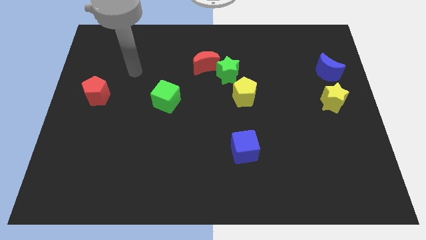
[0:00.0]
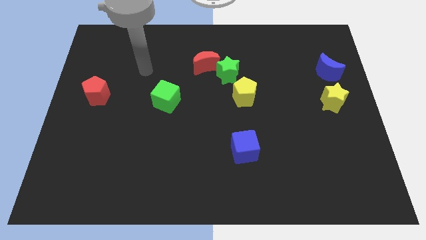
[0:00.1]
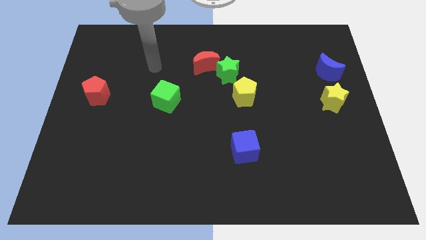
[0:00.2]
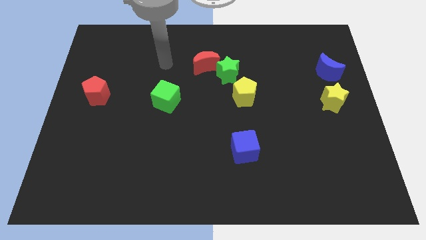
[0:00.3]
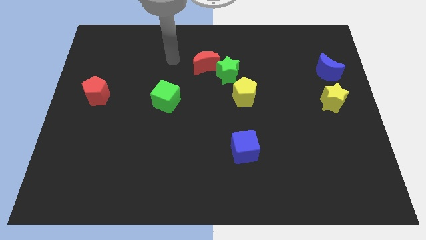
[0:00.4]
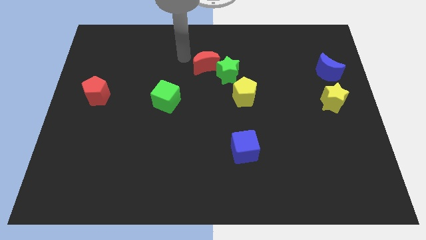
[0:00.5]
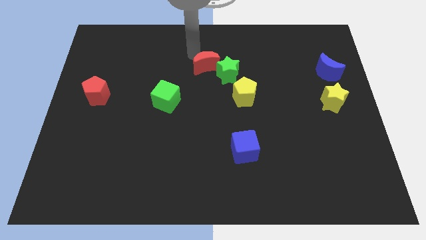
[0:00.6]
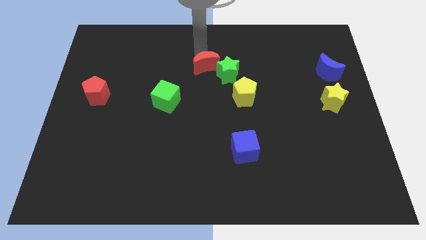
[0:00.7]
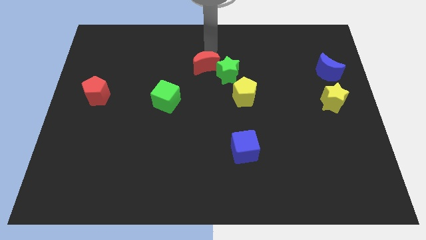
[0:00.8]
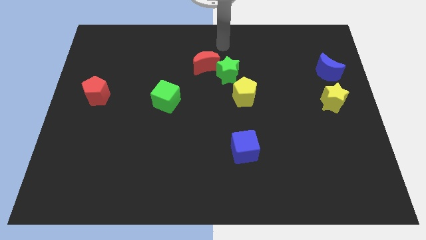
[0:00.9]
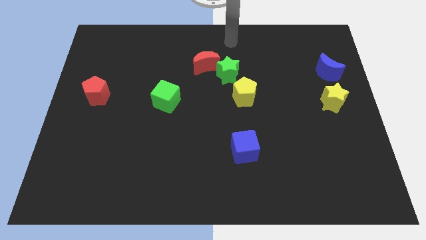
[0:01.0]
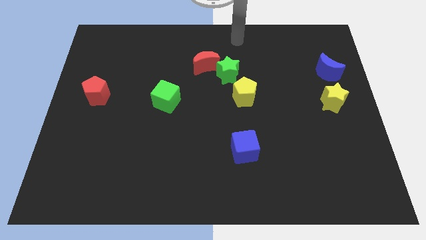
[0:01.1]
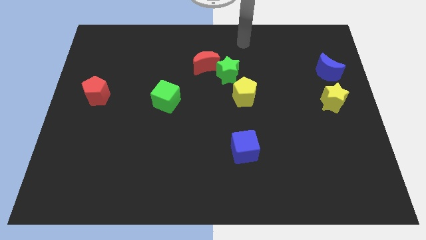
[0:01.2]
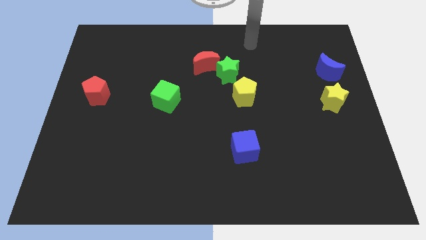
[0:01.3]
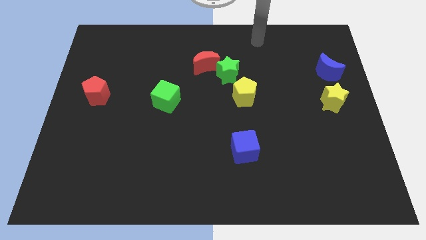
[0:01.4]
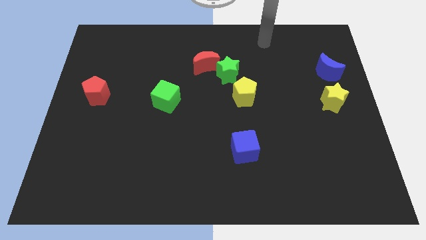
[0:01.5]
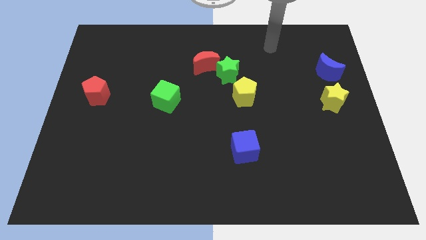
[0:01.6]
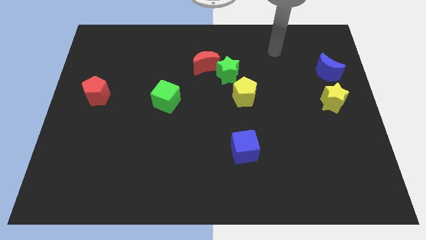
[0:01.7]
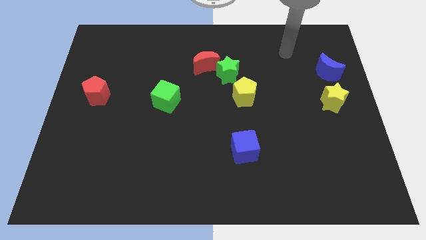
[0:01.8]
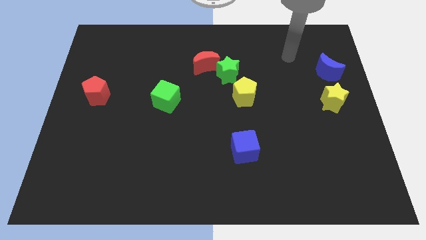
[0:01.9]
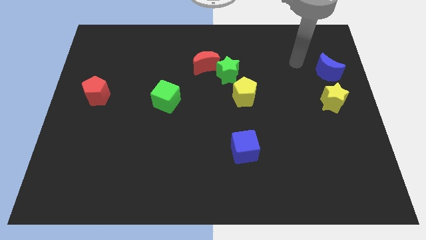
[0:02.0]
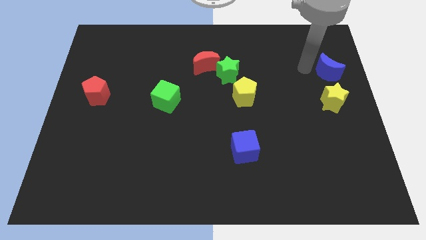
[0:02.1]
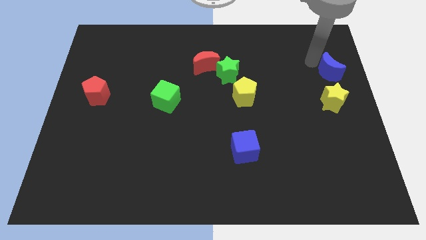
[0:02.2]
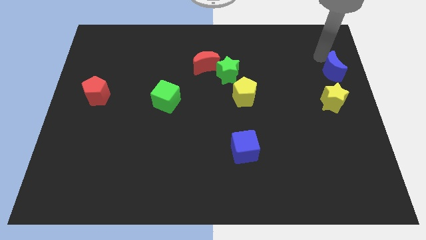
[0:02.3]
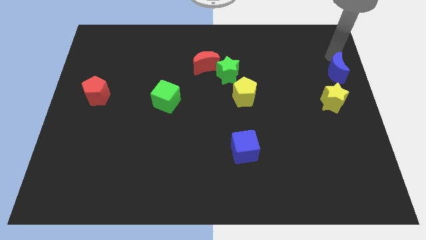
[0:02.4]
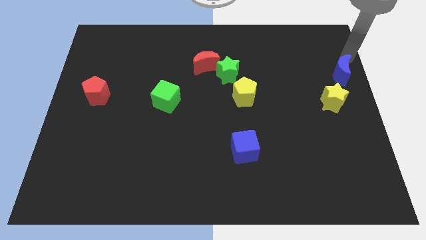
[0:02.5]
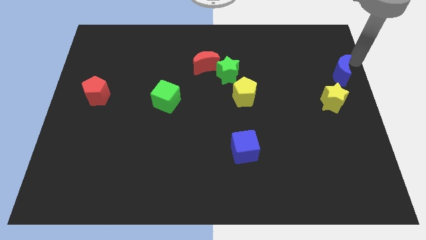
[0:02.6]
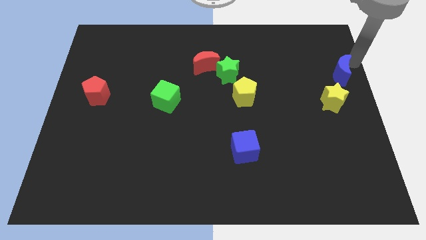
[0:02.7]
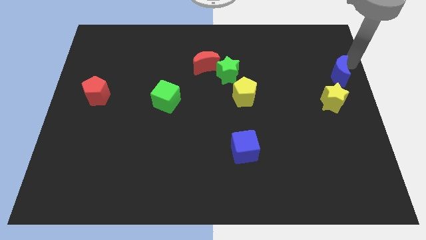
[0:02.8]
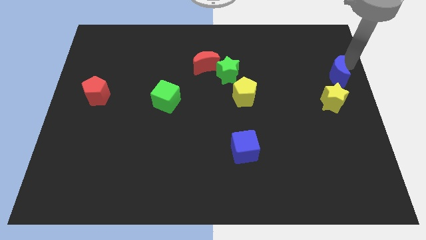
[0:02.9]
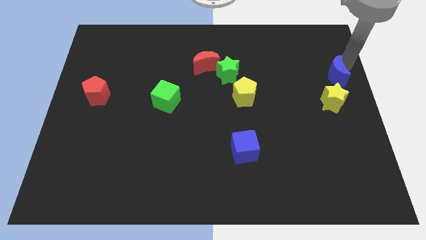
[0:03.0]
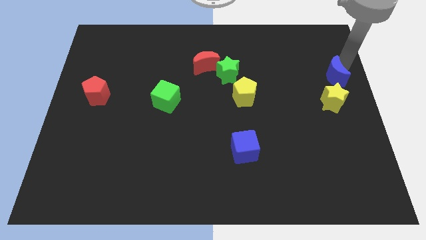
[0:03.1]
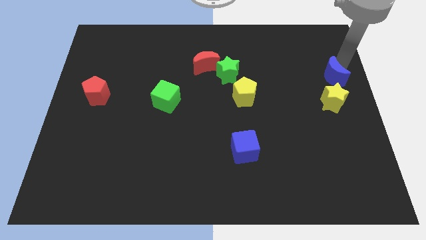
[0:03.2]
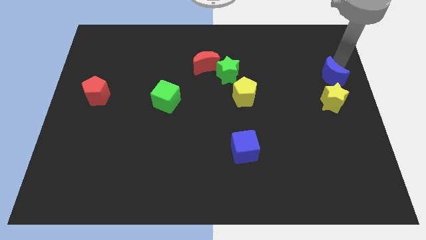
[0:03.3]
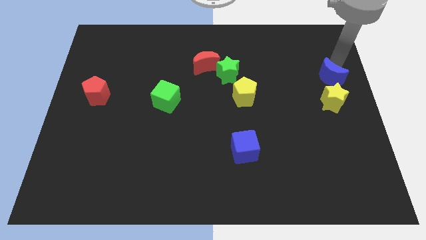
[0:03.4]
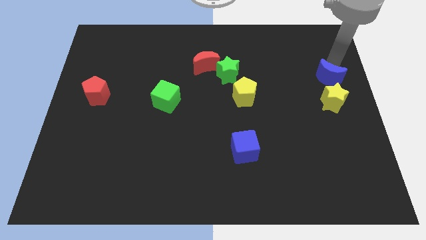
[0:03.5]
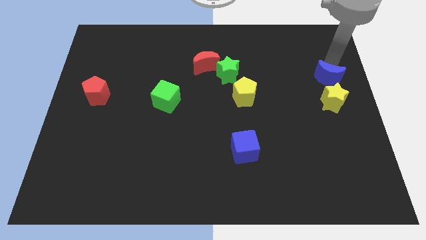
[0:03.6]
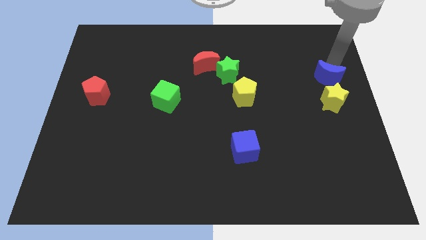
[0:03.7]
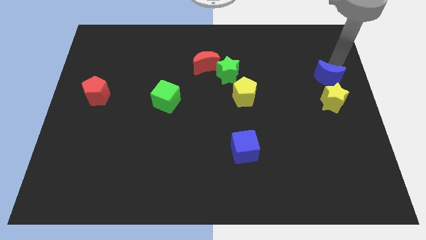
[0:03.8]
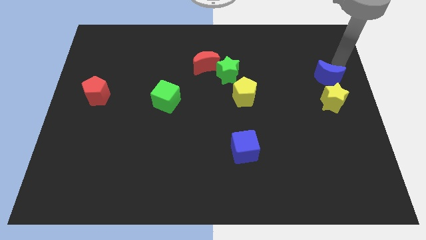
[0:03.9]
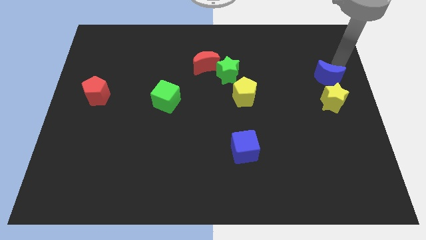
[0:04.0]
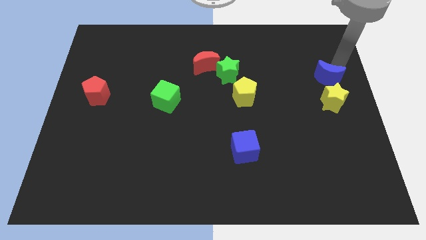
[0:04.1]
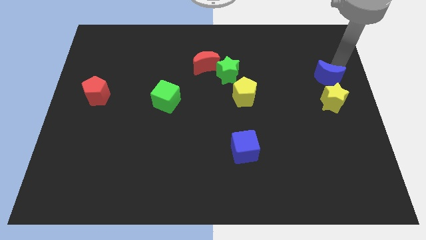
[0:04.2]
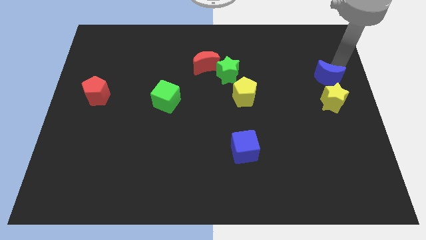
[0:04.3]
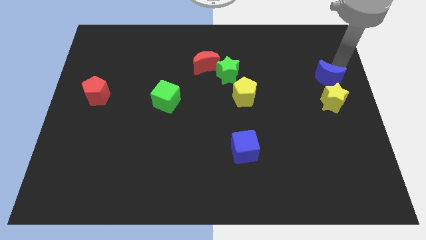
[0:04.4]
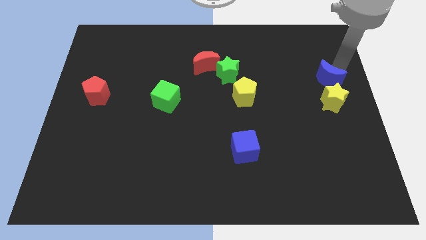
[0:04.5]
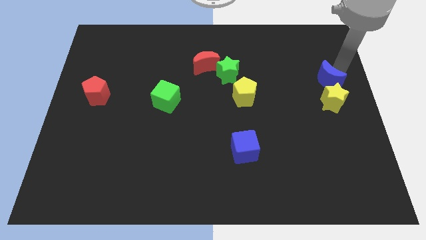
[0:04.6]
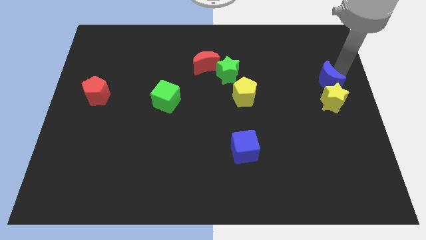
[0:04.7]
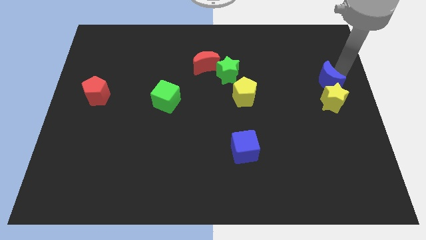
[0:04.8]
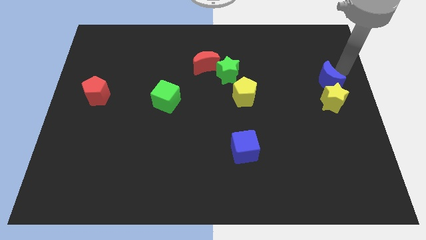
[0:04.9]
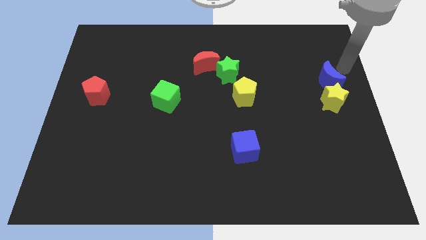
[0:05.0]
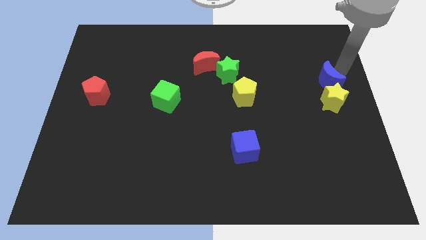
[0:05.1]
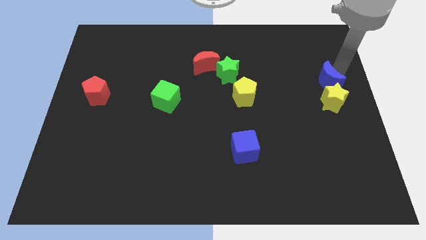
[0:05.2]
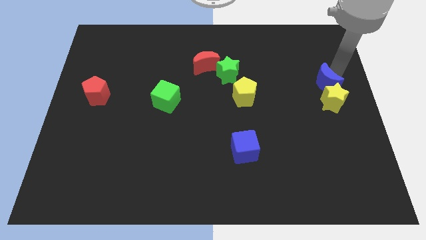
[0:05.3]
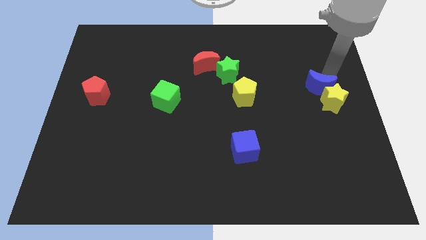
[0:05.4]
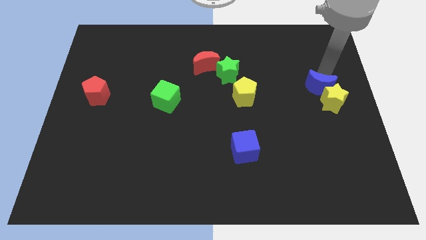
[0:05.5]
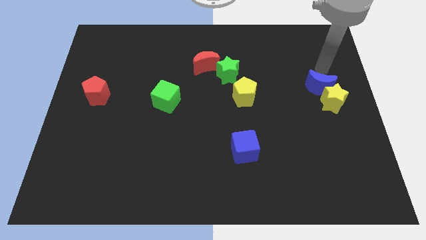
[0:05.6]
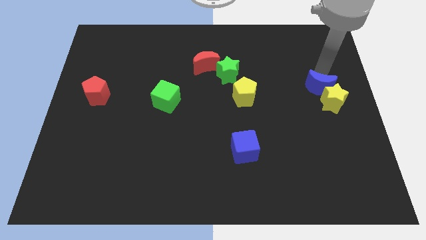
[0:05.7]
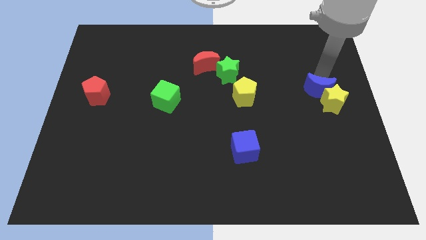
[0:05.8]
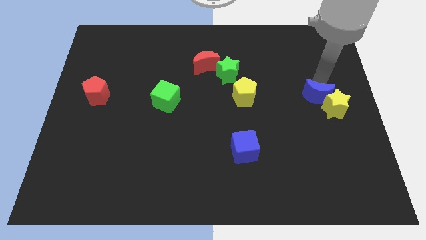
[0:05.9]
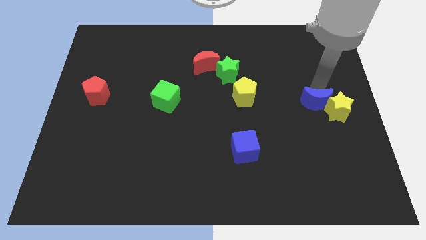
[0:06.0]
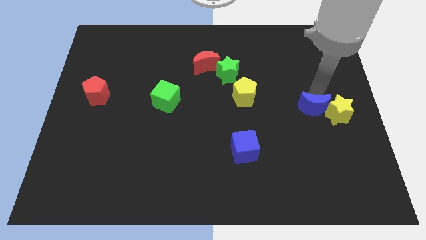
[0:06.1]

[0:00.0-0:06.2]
move the blue moon to the bottom left side of the yellow star

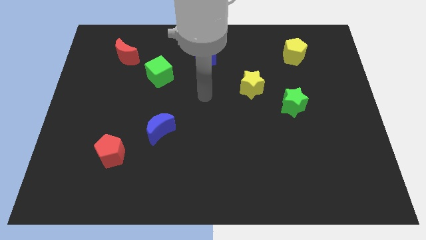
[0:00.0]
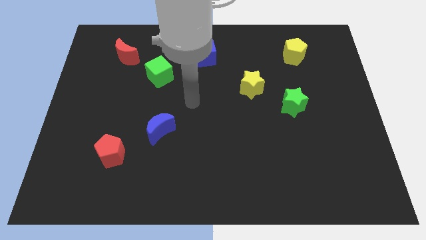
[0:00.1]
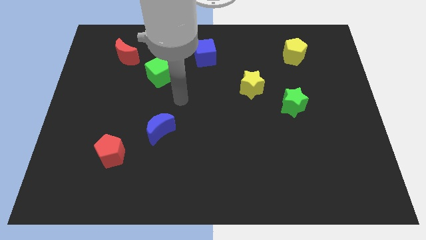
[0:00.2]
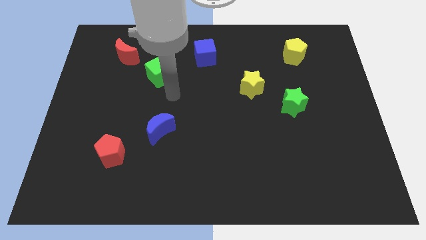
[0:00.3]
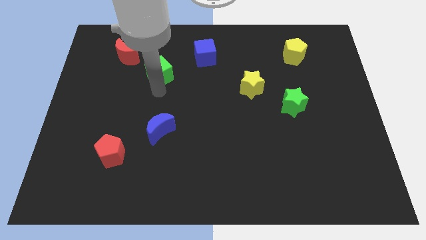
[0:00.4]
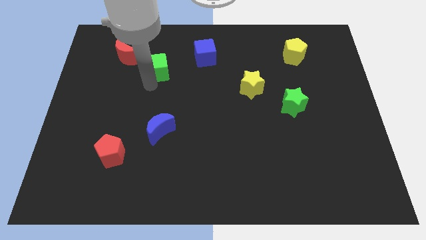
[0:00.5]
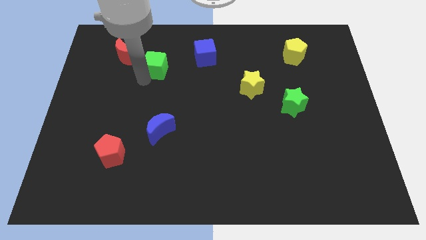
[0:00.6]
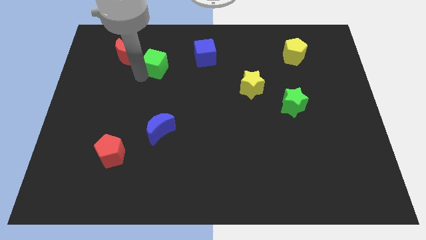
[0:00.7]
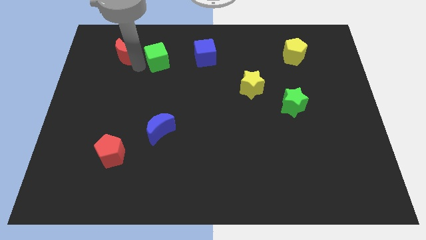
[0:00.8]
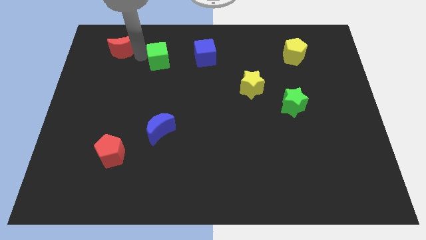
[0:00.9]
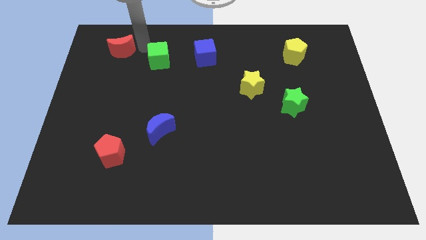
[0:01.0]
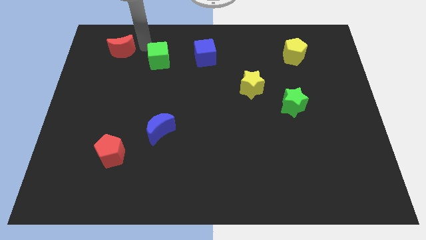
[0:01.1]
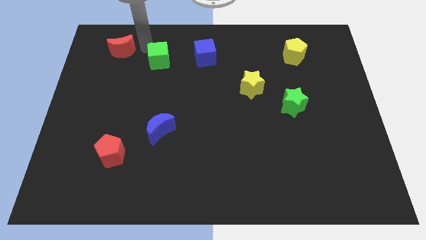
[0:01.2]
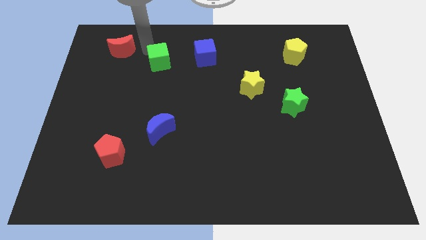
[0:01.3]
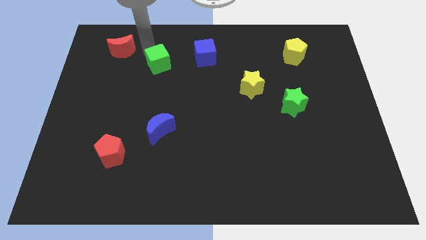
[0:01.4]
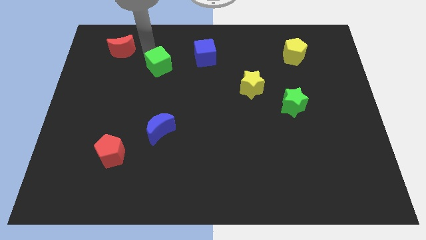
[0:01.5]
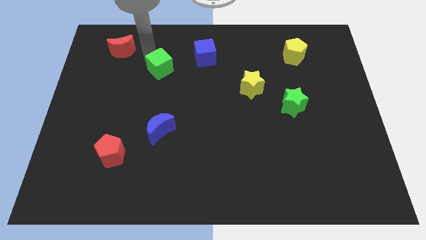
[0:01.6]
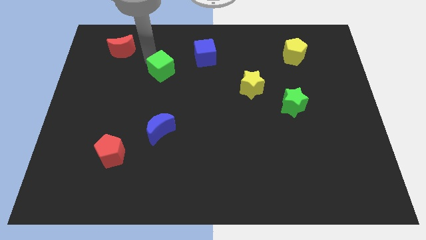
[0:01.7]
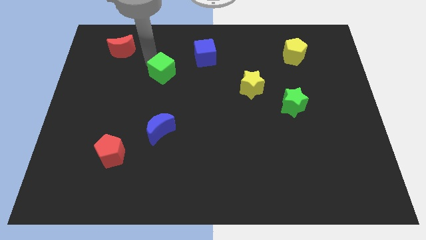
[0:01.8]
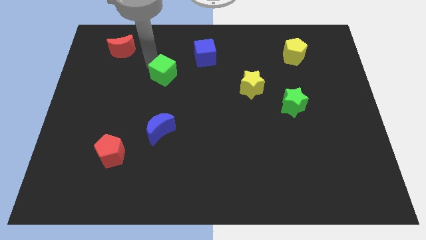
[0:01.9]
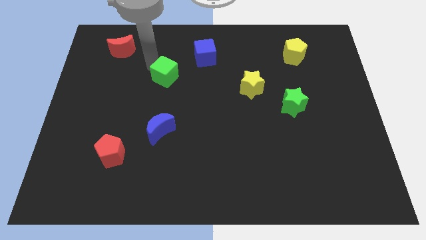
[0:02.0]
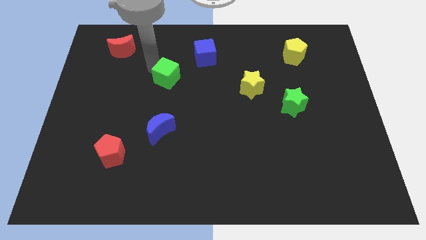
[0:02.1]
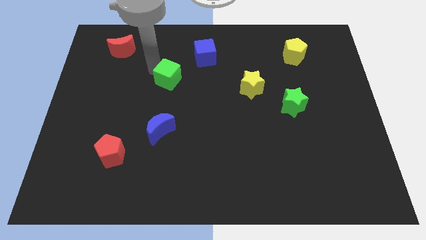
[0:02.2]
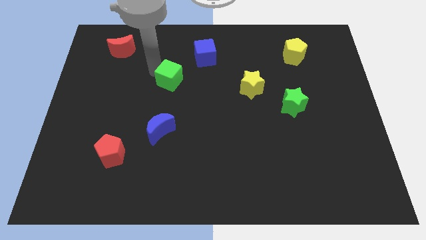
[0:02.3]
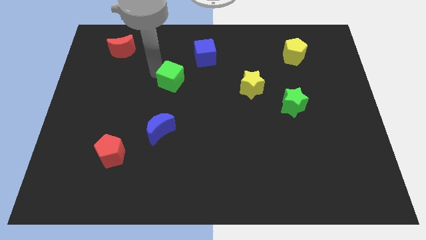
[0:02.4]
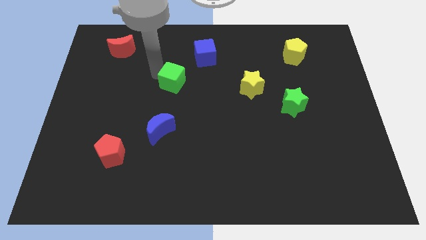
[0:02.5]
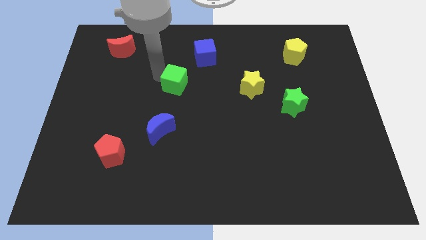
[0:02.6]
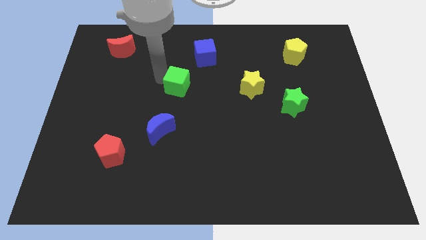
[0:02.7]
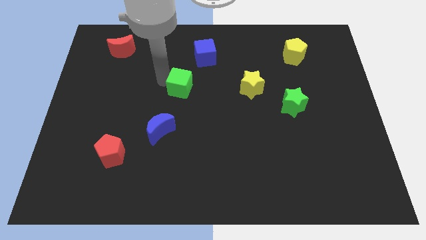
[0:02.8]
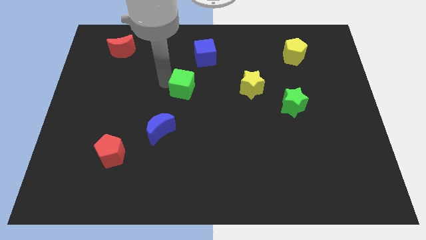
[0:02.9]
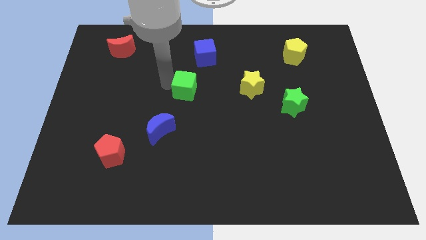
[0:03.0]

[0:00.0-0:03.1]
move the green cube to the left side of the yellow star
